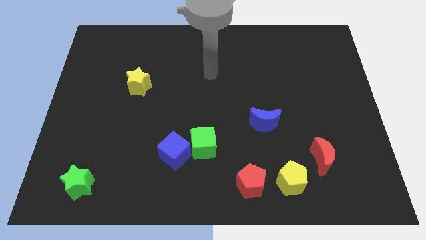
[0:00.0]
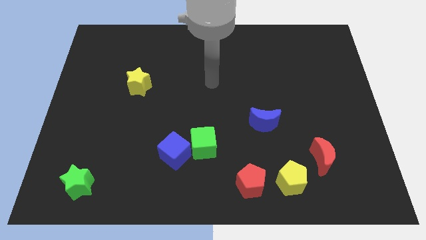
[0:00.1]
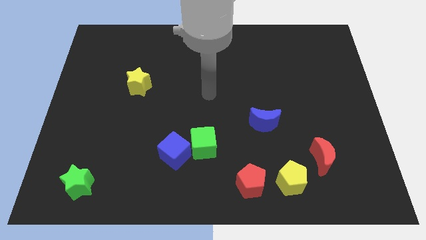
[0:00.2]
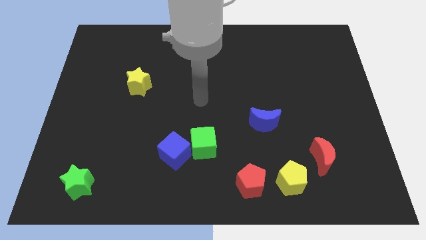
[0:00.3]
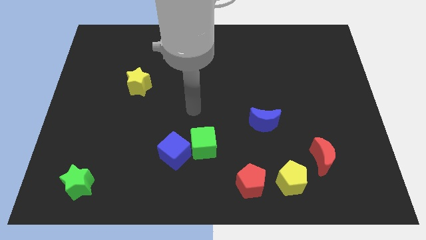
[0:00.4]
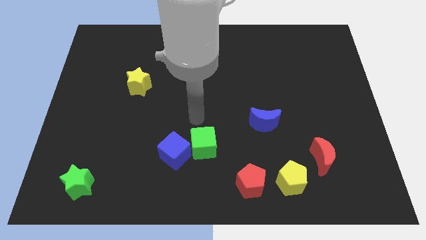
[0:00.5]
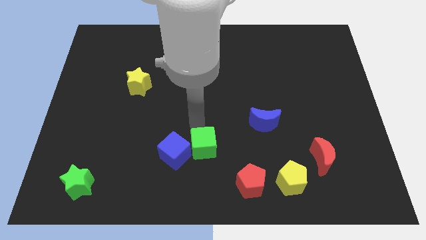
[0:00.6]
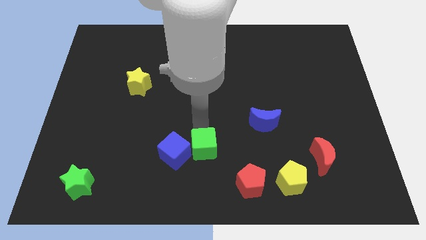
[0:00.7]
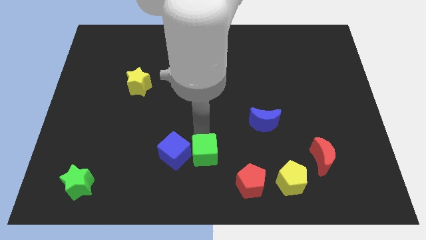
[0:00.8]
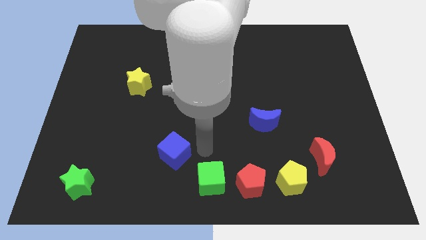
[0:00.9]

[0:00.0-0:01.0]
pull the blue cube apart from the green cube

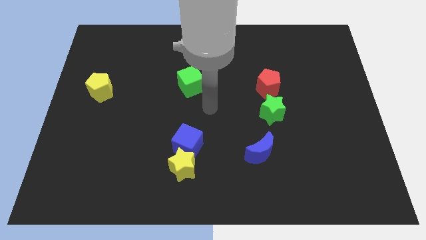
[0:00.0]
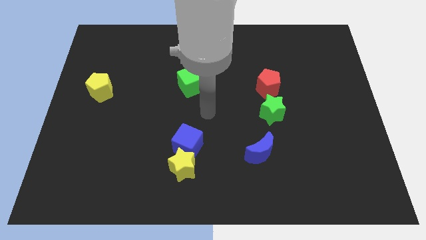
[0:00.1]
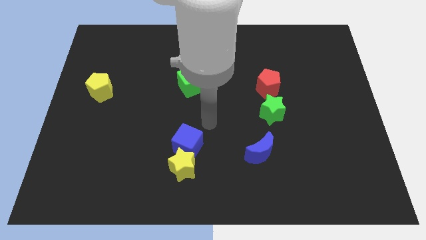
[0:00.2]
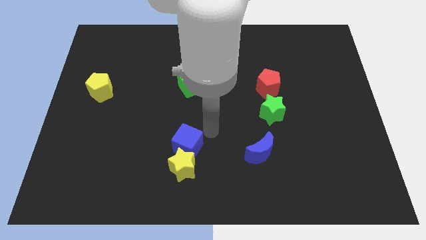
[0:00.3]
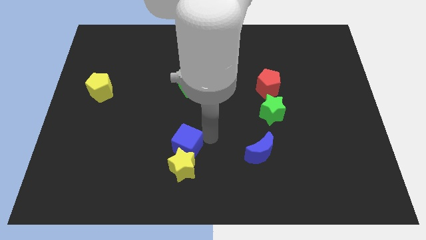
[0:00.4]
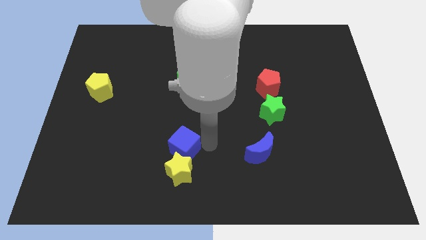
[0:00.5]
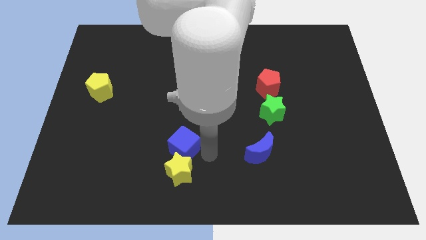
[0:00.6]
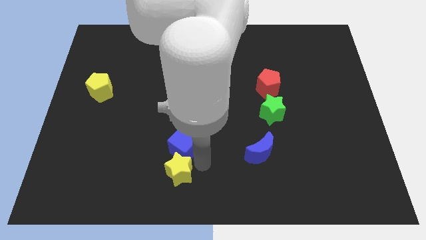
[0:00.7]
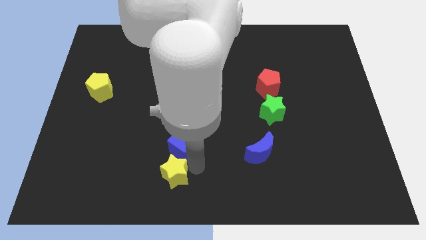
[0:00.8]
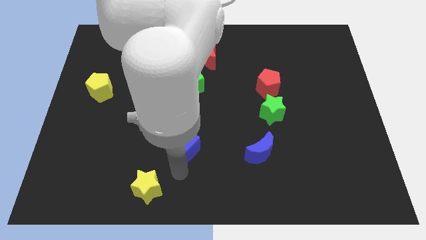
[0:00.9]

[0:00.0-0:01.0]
pull the blue cube apart from the yellow star

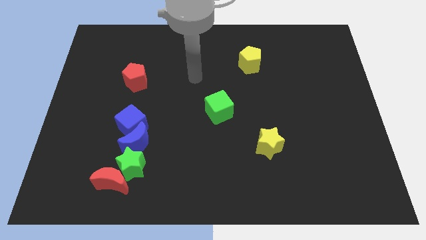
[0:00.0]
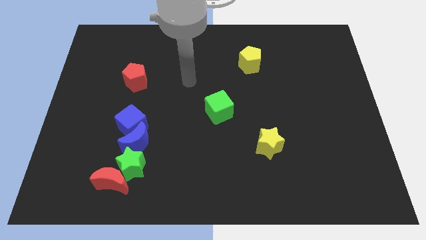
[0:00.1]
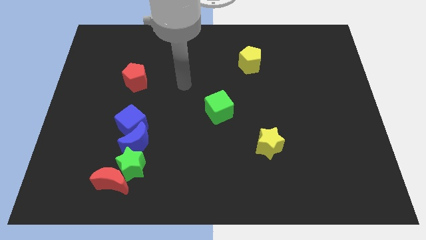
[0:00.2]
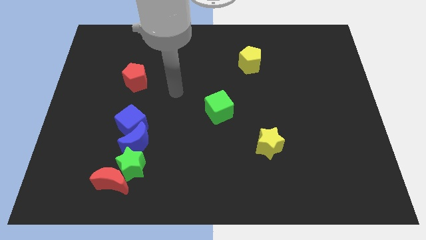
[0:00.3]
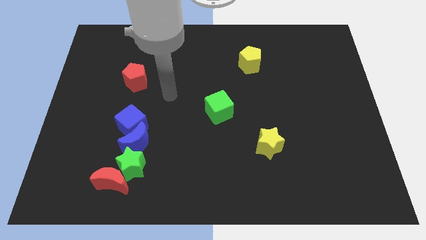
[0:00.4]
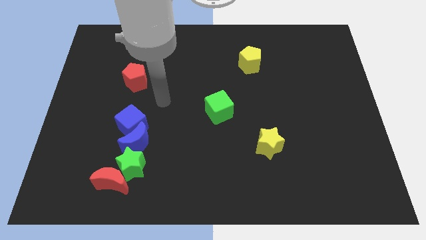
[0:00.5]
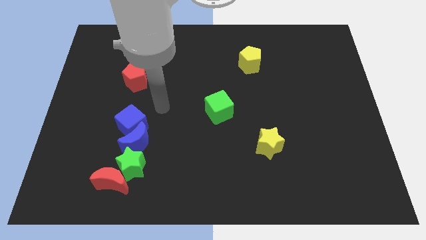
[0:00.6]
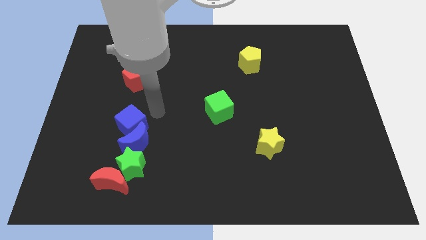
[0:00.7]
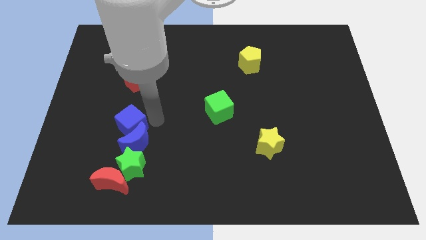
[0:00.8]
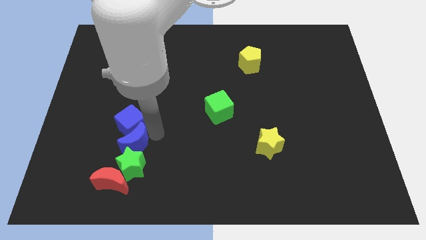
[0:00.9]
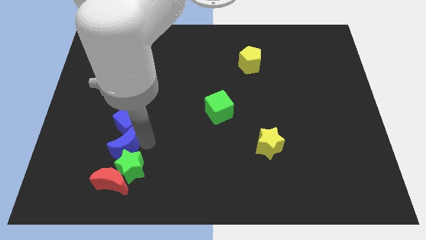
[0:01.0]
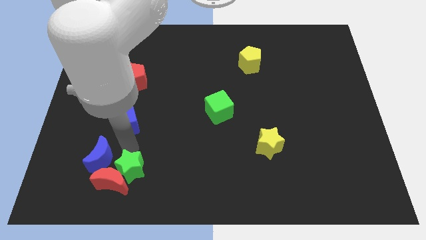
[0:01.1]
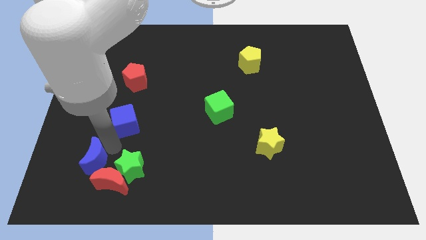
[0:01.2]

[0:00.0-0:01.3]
separate the blue cube from the blue moon

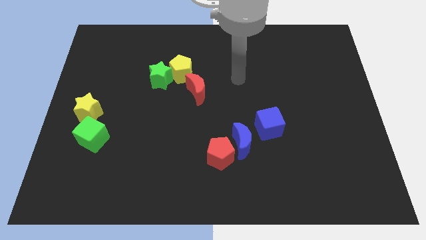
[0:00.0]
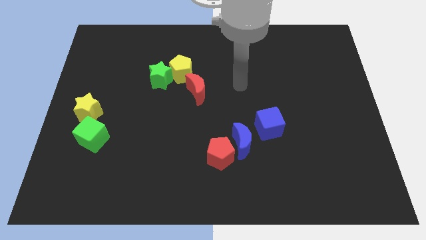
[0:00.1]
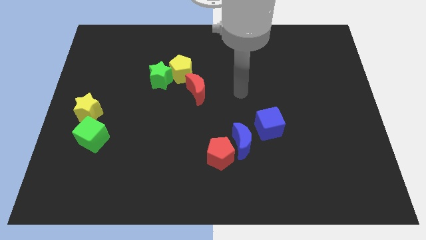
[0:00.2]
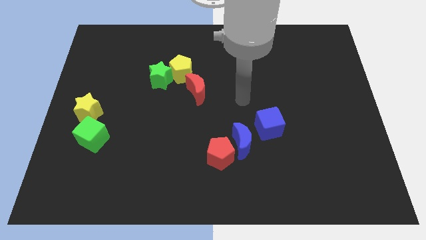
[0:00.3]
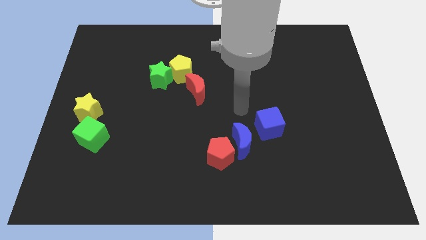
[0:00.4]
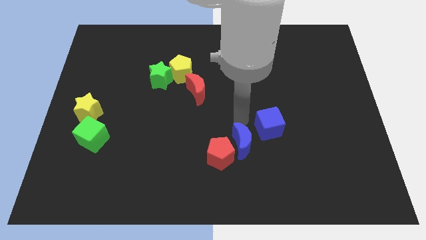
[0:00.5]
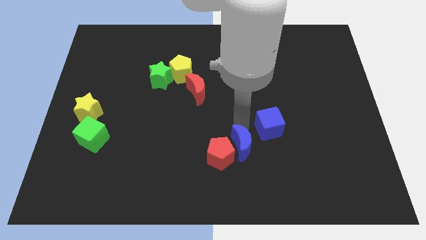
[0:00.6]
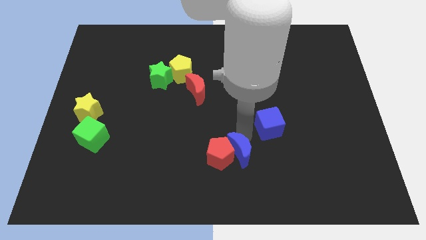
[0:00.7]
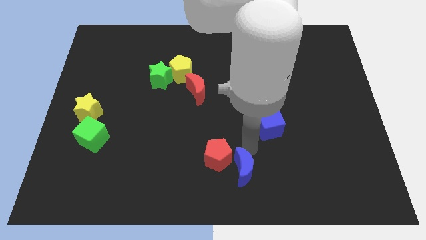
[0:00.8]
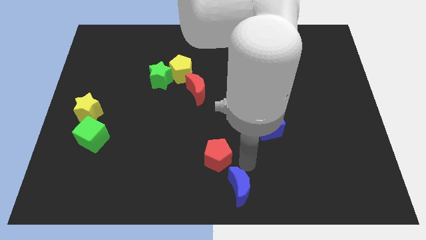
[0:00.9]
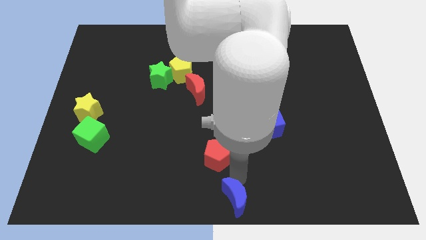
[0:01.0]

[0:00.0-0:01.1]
move the red pentagon away from the blue moon

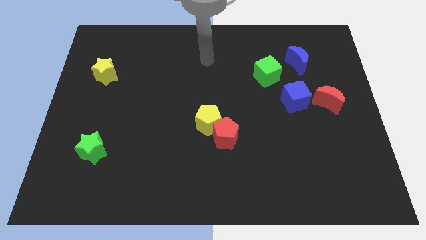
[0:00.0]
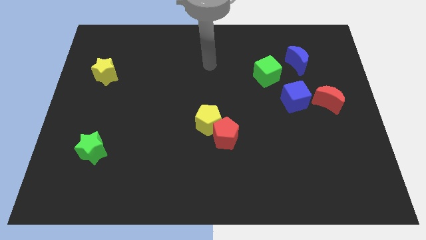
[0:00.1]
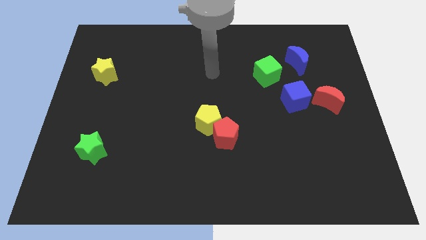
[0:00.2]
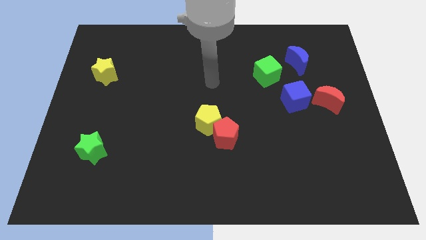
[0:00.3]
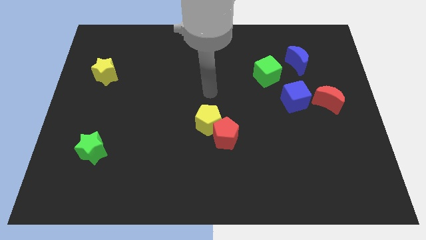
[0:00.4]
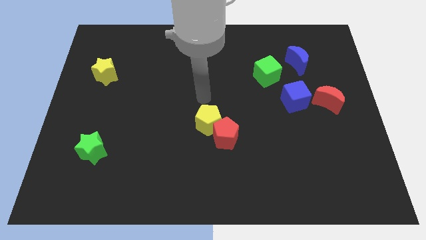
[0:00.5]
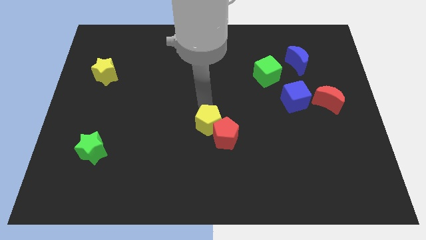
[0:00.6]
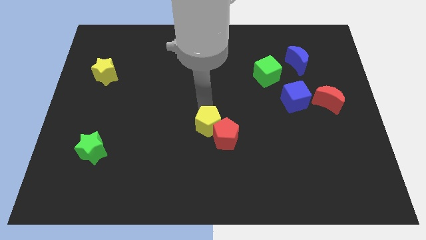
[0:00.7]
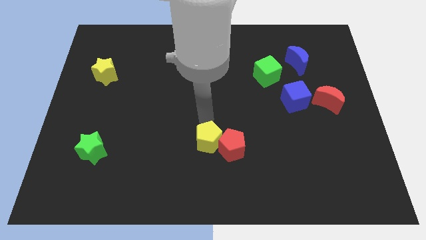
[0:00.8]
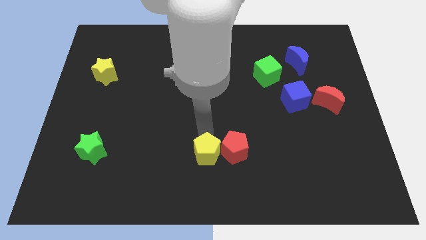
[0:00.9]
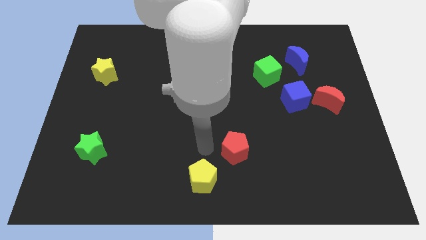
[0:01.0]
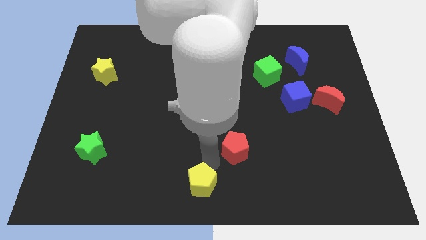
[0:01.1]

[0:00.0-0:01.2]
separate the red pentagon from the yellow pentagon

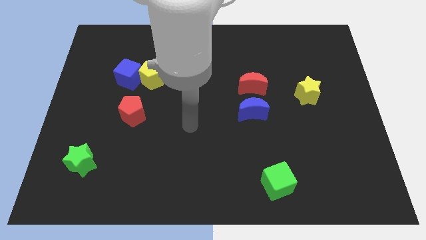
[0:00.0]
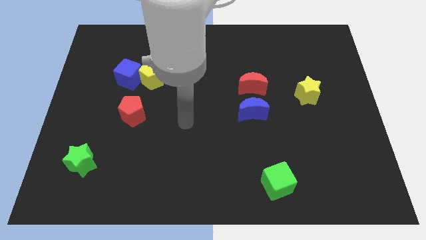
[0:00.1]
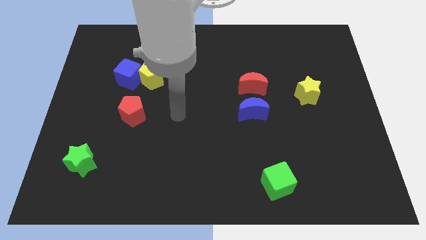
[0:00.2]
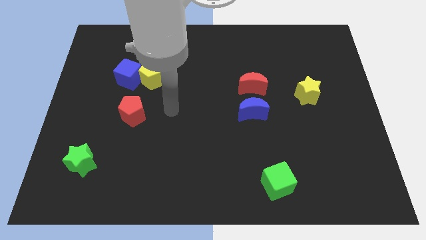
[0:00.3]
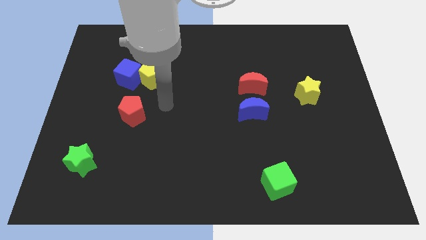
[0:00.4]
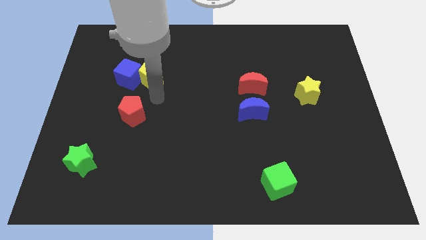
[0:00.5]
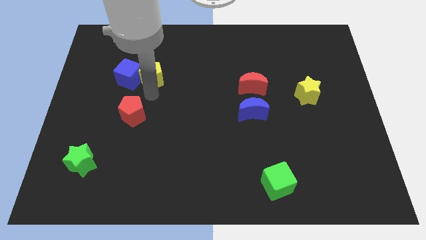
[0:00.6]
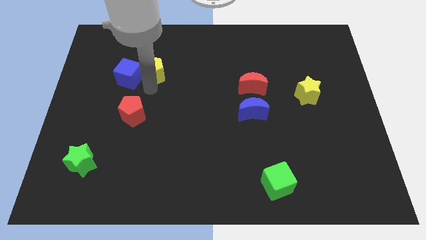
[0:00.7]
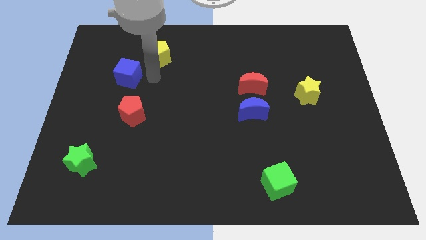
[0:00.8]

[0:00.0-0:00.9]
separate the blue cube from the yellow pentagon

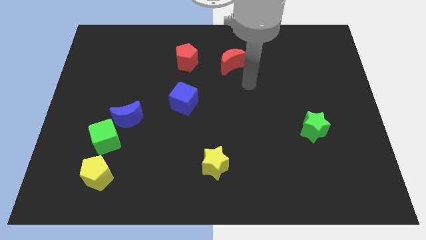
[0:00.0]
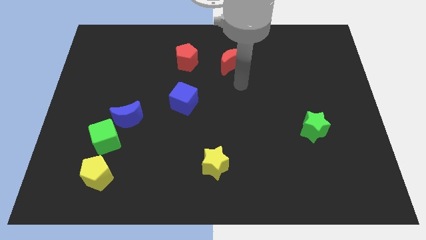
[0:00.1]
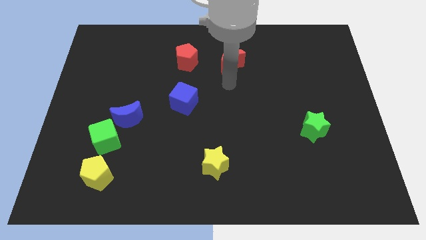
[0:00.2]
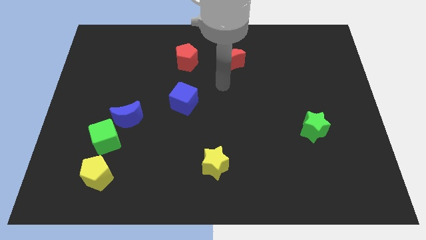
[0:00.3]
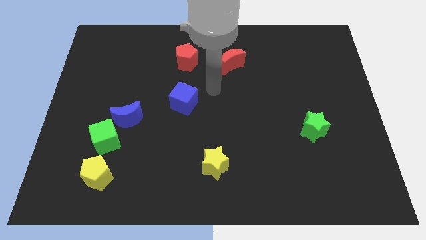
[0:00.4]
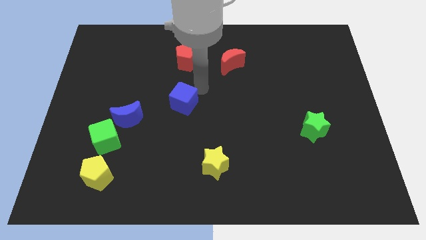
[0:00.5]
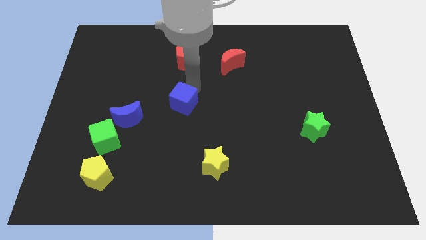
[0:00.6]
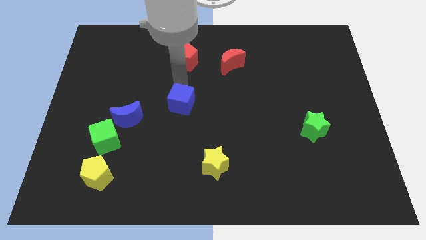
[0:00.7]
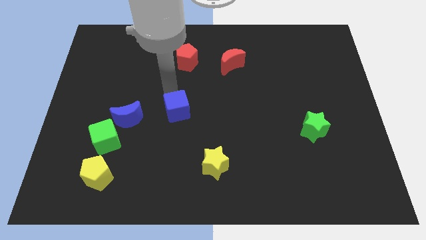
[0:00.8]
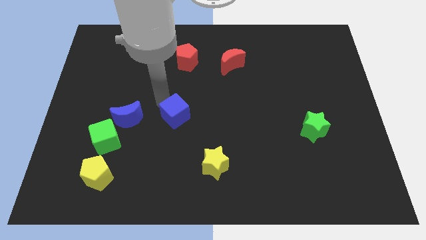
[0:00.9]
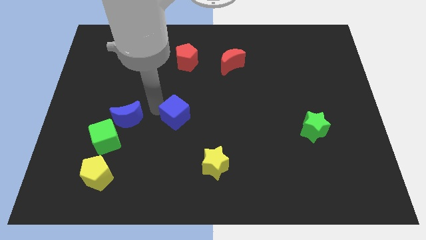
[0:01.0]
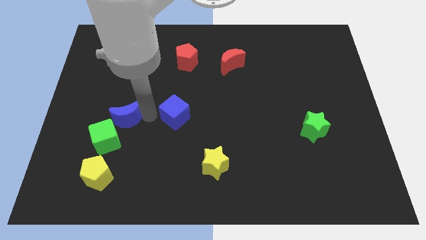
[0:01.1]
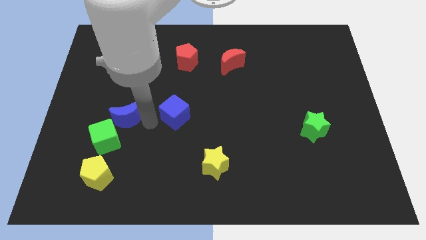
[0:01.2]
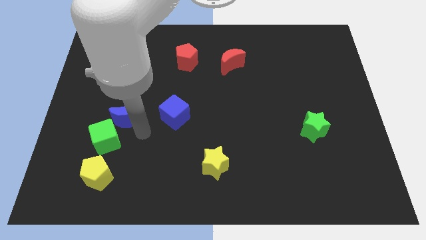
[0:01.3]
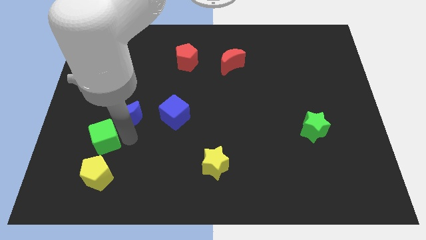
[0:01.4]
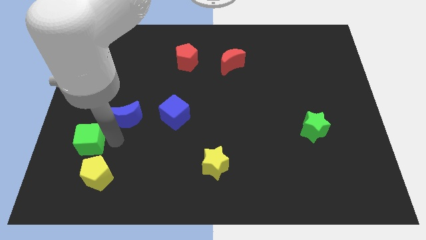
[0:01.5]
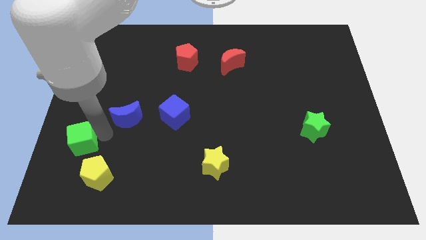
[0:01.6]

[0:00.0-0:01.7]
separate the blue moon from the green cube

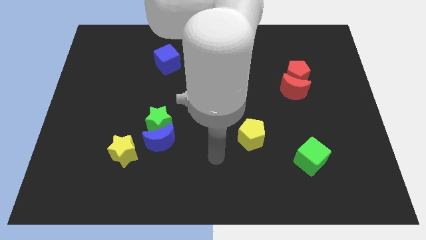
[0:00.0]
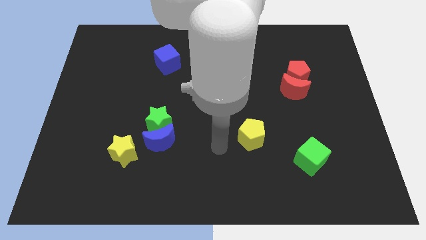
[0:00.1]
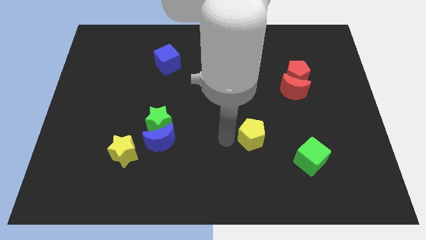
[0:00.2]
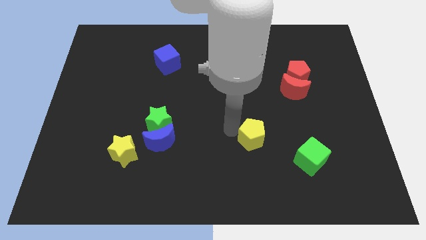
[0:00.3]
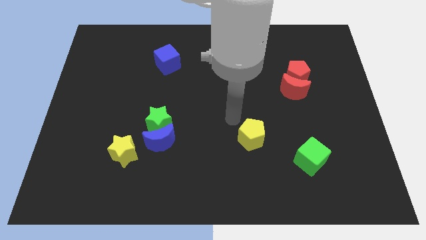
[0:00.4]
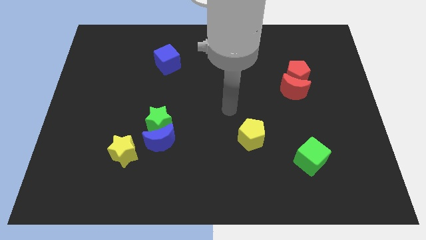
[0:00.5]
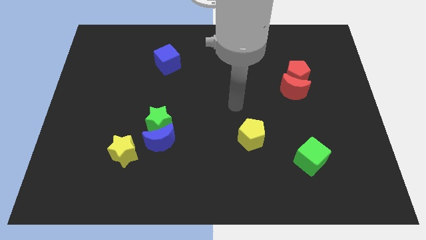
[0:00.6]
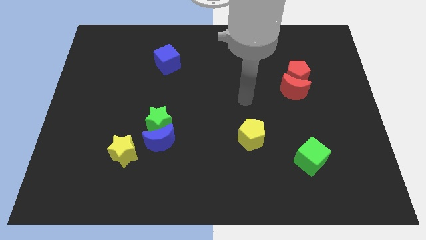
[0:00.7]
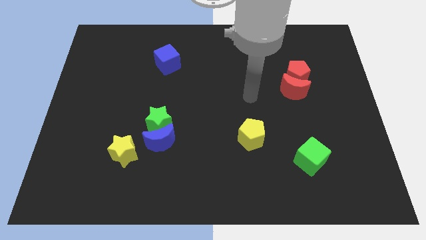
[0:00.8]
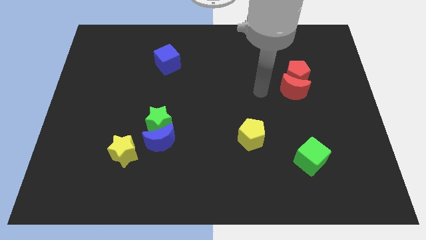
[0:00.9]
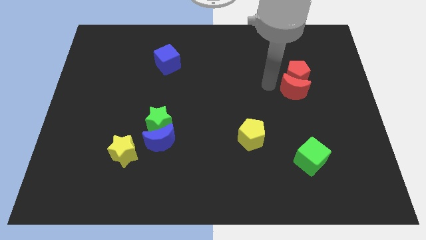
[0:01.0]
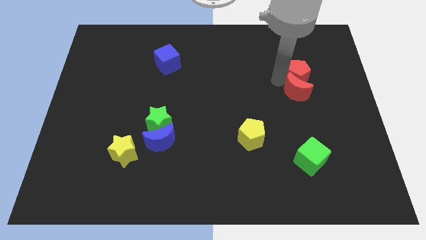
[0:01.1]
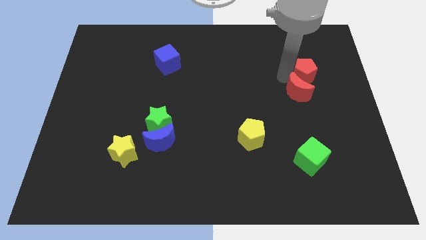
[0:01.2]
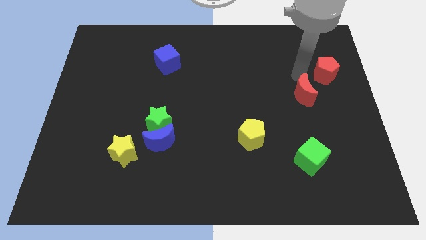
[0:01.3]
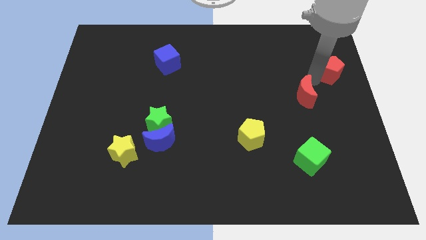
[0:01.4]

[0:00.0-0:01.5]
move the red moon away from the red pentagon
